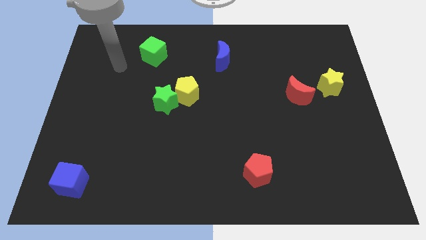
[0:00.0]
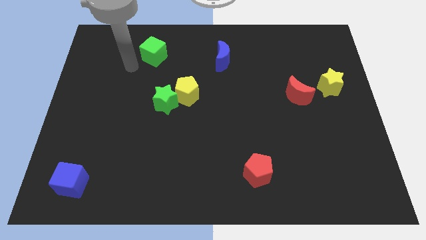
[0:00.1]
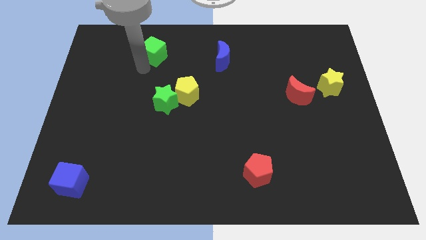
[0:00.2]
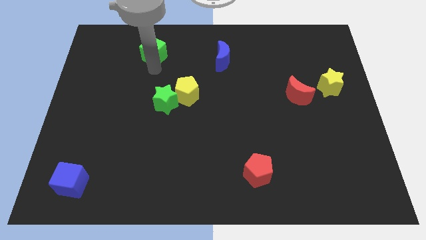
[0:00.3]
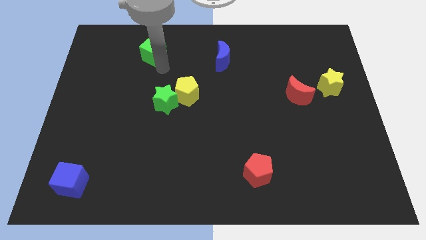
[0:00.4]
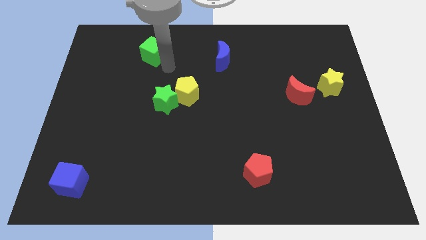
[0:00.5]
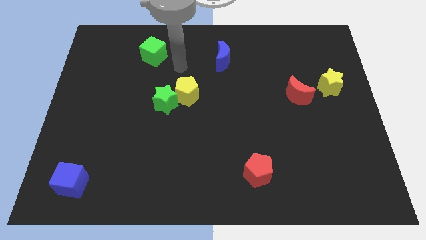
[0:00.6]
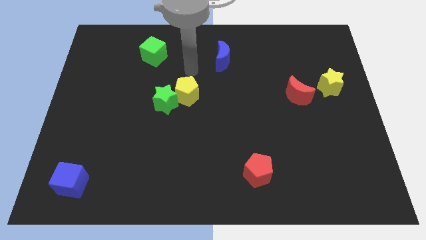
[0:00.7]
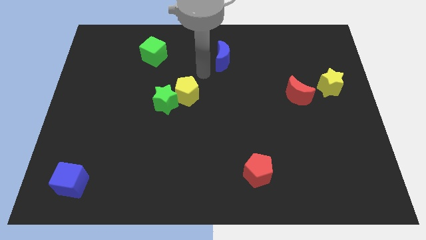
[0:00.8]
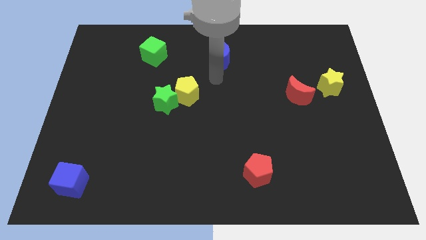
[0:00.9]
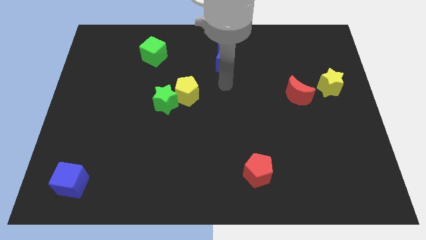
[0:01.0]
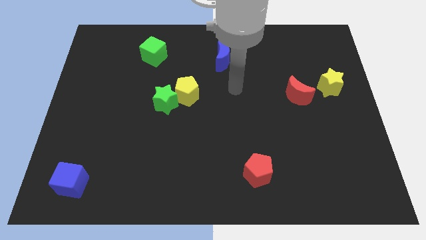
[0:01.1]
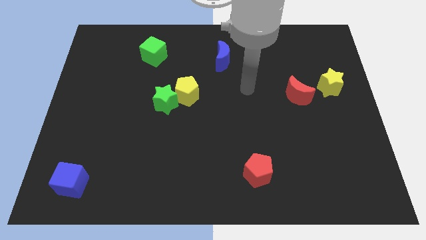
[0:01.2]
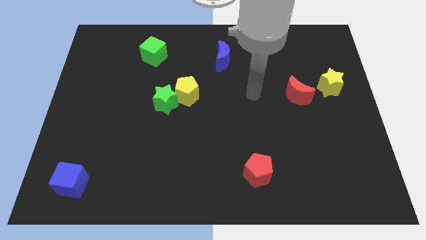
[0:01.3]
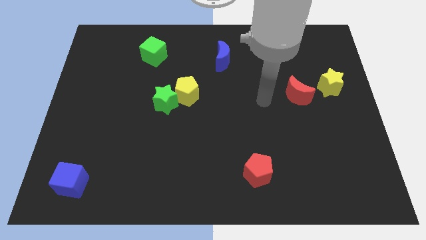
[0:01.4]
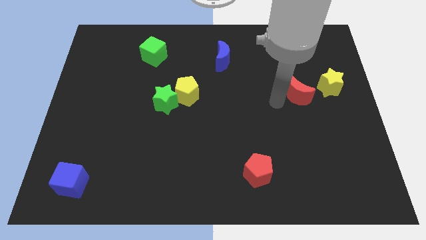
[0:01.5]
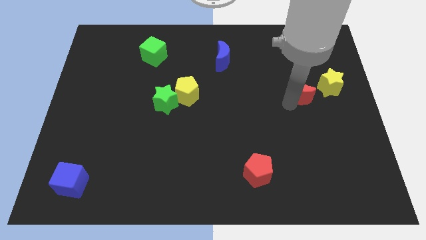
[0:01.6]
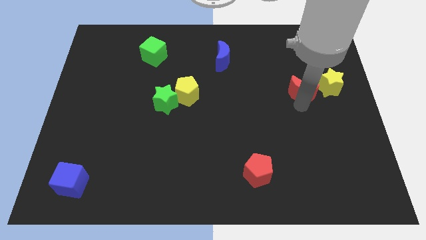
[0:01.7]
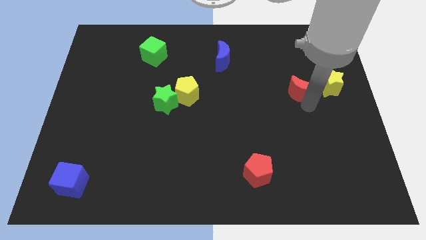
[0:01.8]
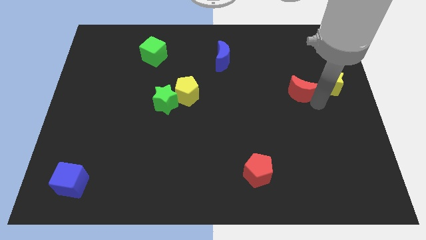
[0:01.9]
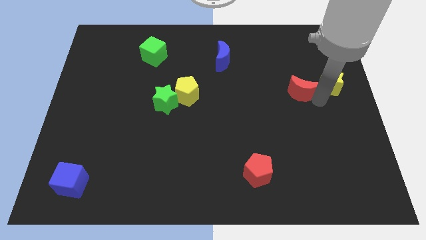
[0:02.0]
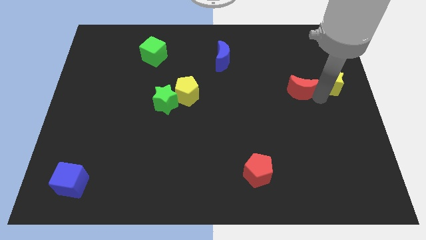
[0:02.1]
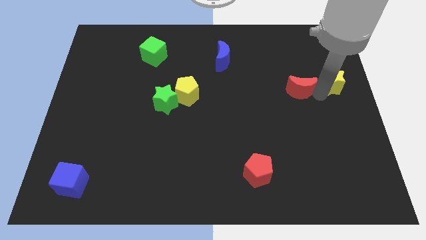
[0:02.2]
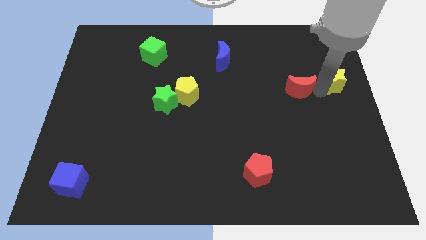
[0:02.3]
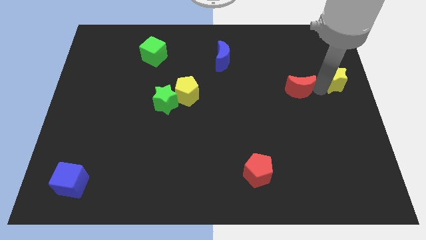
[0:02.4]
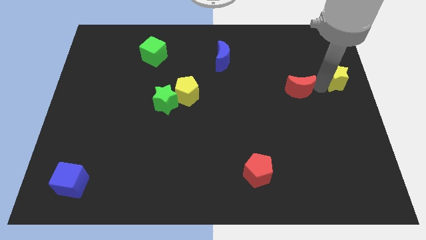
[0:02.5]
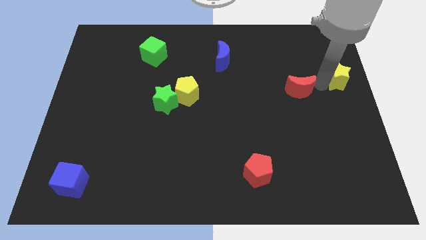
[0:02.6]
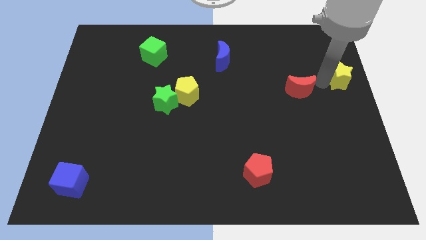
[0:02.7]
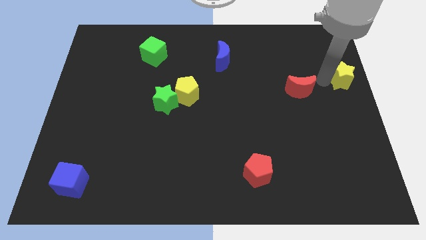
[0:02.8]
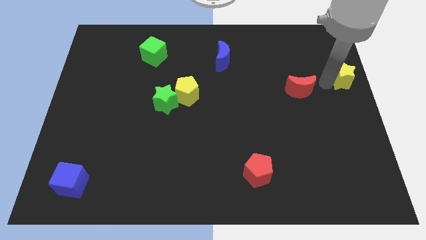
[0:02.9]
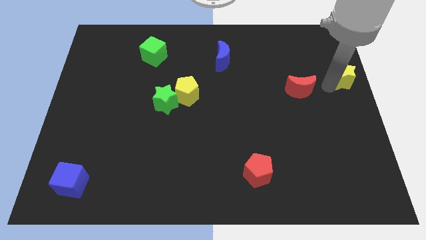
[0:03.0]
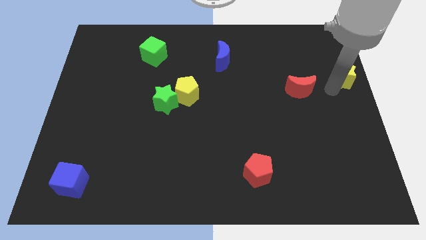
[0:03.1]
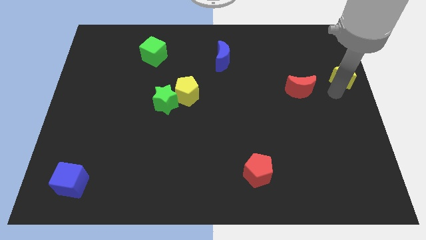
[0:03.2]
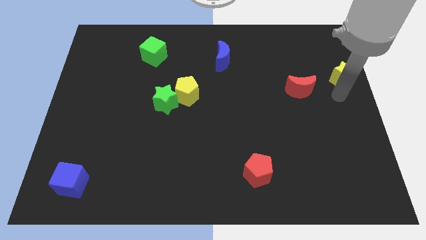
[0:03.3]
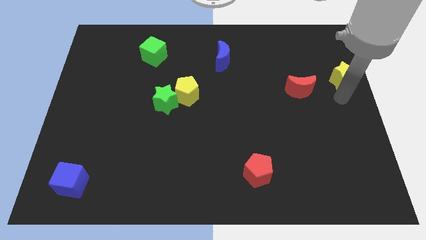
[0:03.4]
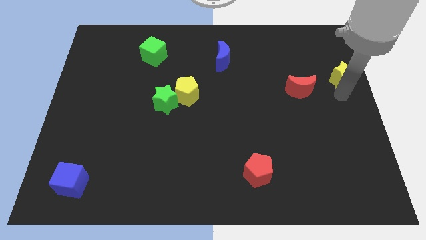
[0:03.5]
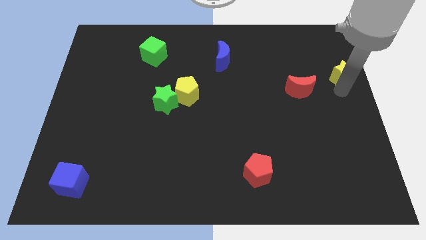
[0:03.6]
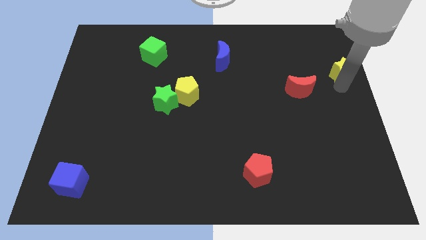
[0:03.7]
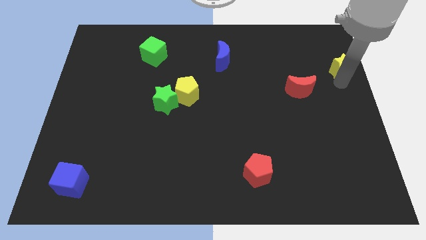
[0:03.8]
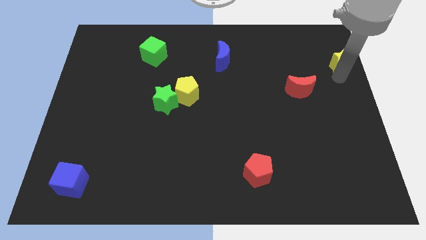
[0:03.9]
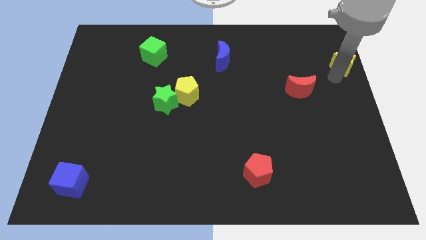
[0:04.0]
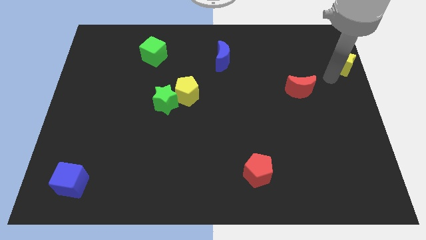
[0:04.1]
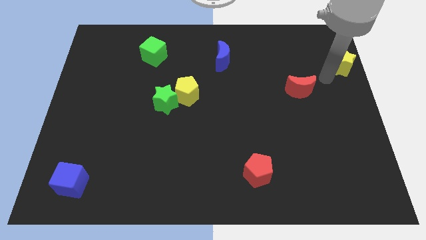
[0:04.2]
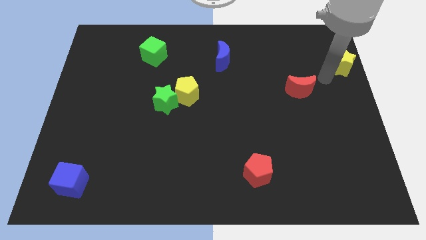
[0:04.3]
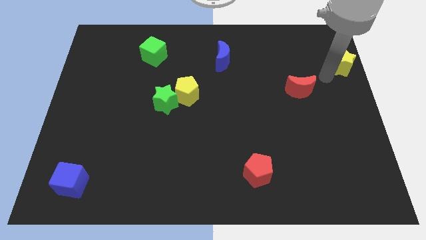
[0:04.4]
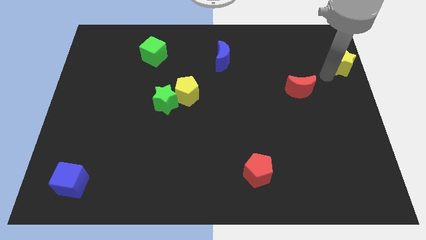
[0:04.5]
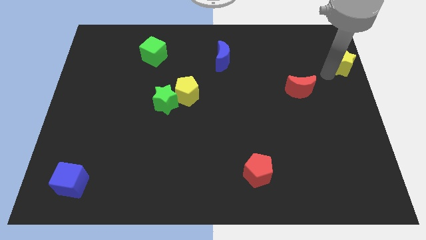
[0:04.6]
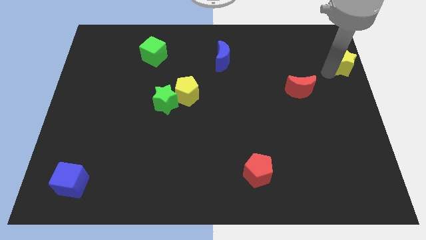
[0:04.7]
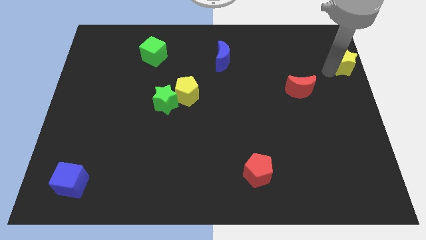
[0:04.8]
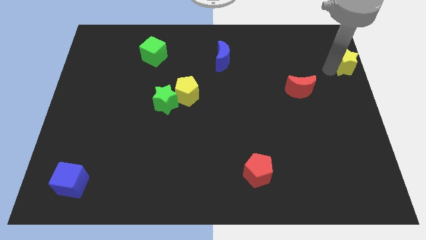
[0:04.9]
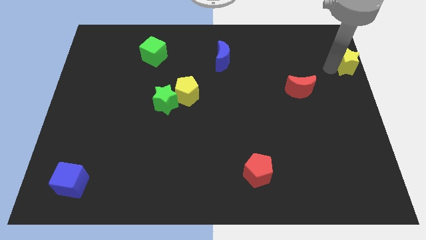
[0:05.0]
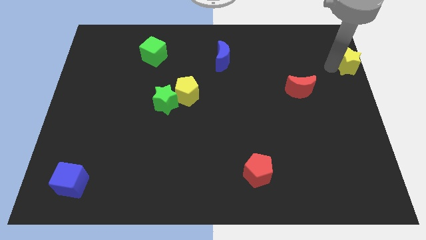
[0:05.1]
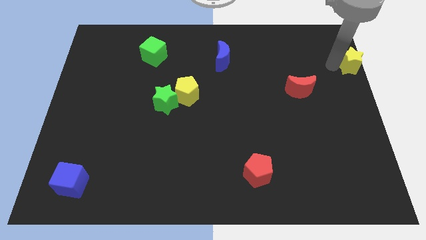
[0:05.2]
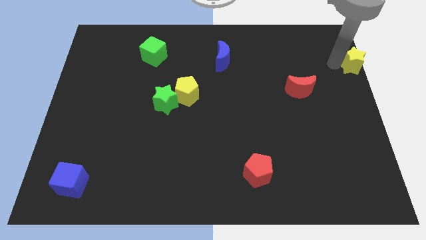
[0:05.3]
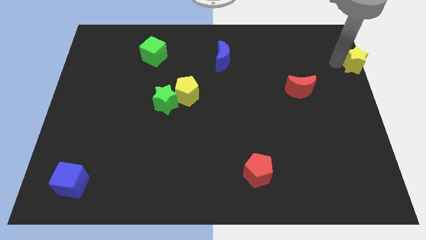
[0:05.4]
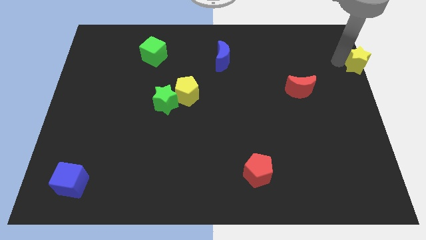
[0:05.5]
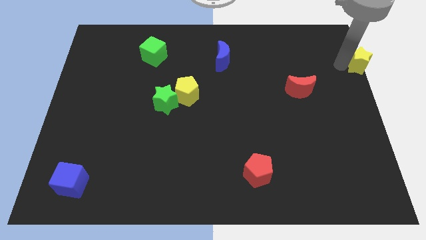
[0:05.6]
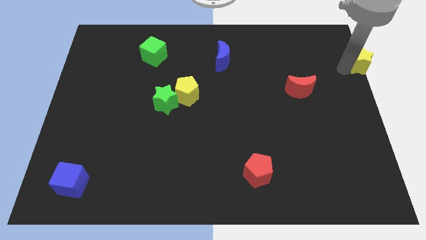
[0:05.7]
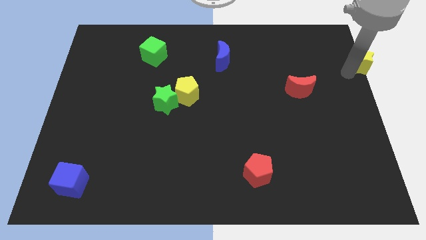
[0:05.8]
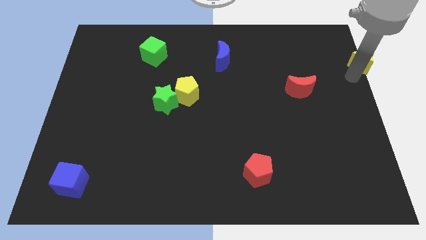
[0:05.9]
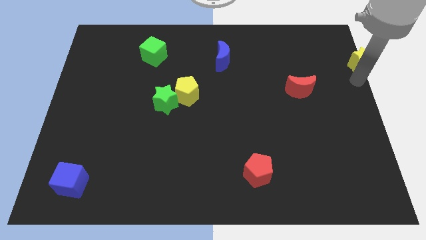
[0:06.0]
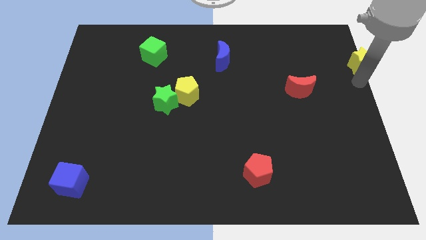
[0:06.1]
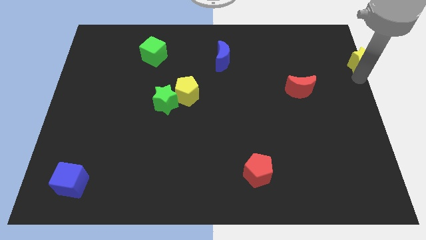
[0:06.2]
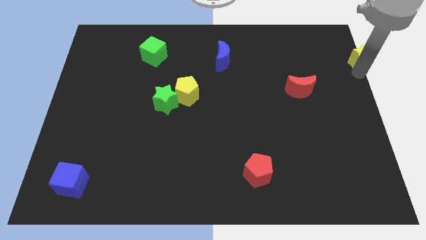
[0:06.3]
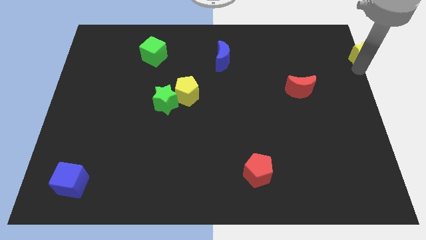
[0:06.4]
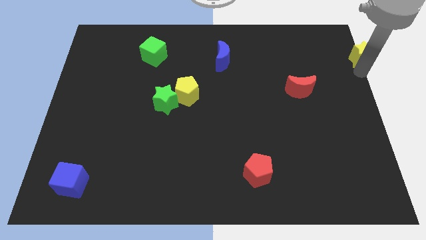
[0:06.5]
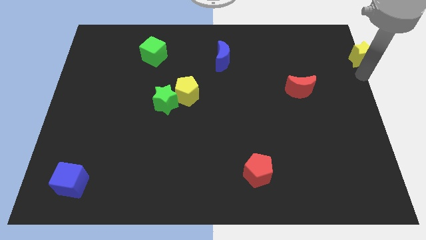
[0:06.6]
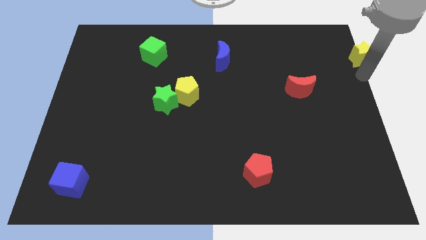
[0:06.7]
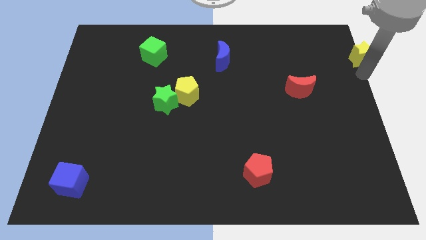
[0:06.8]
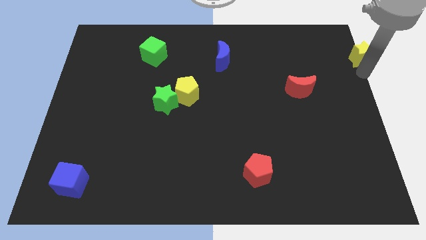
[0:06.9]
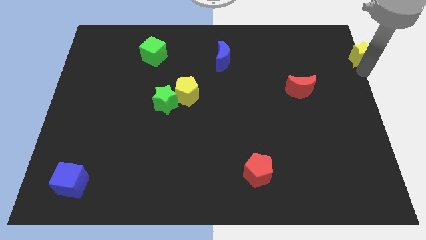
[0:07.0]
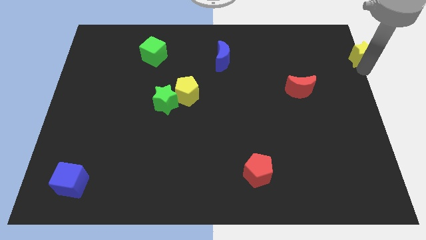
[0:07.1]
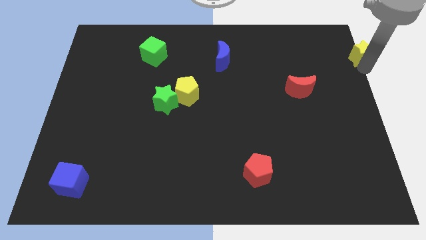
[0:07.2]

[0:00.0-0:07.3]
put the yellow star to the top right

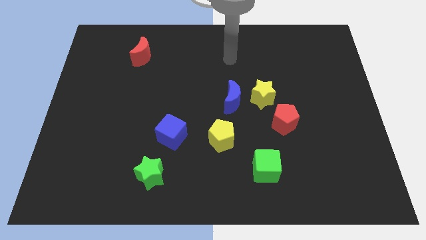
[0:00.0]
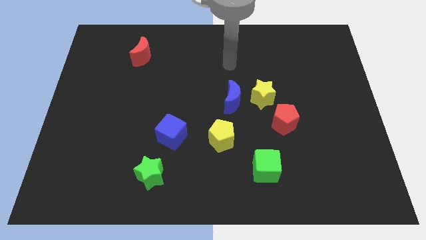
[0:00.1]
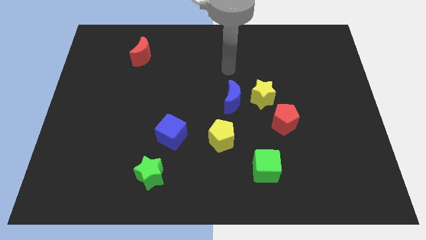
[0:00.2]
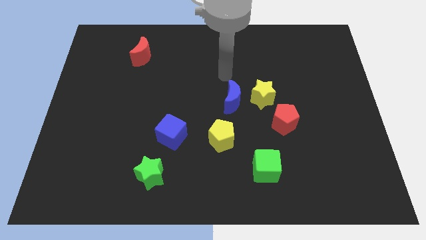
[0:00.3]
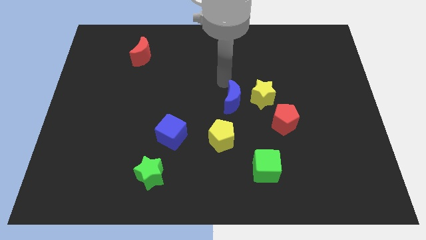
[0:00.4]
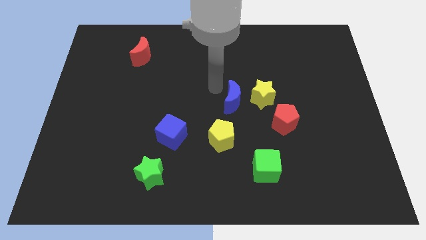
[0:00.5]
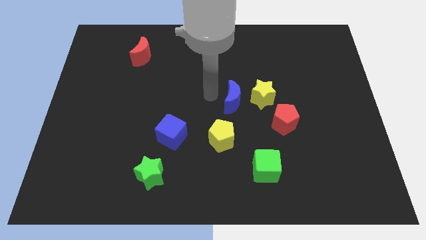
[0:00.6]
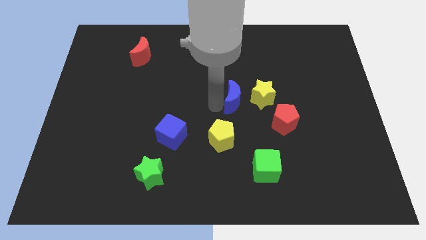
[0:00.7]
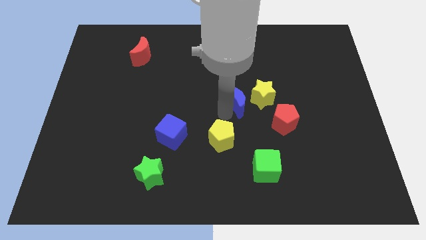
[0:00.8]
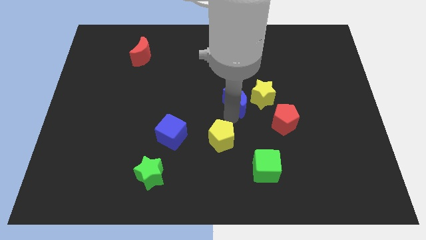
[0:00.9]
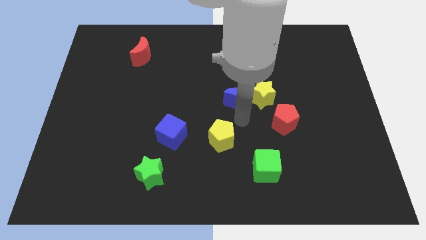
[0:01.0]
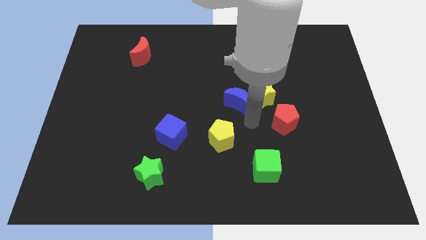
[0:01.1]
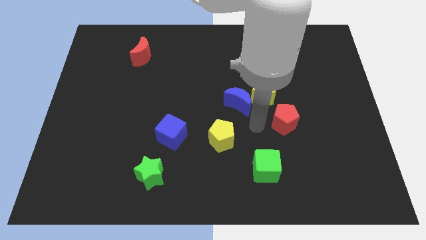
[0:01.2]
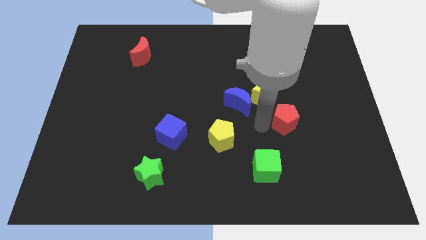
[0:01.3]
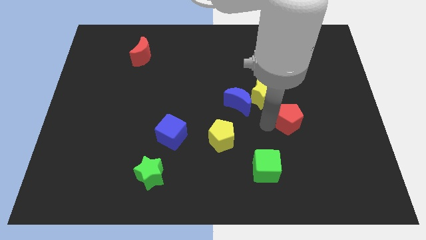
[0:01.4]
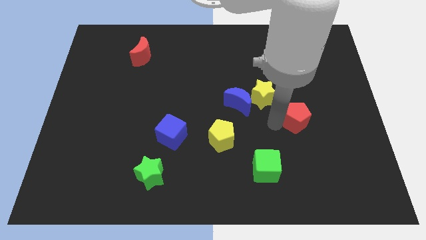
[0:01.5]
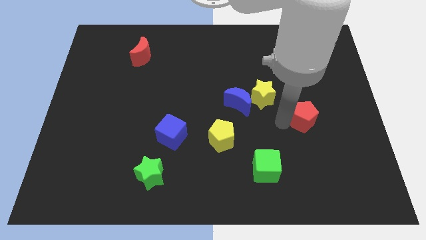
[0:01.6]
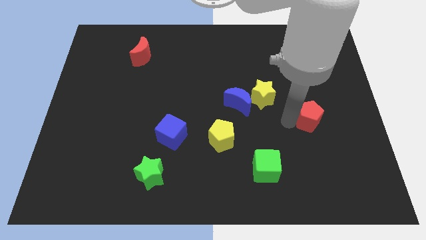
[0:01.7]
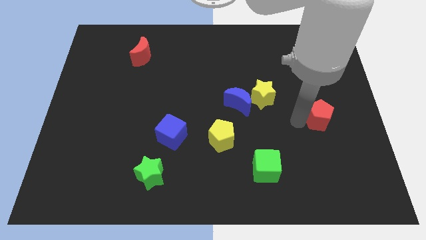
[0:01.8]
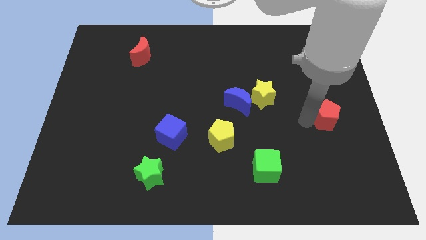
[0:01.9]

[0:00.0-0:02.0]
move the red pentagon to the right side of the board
